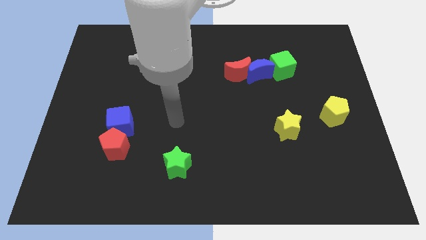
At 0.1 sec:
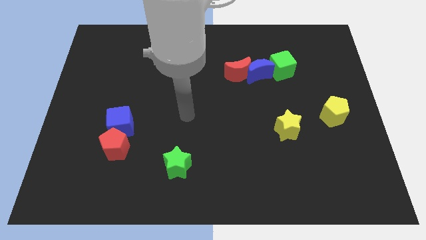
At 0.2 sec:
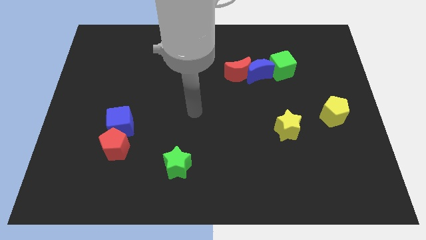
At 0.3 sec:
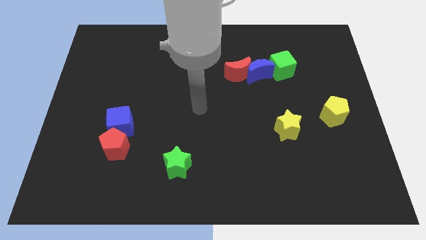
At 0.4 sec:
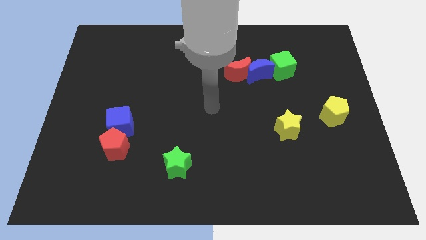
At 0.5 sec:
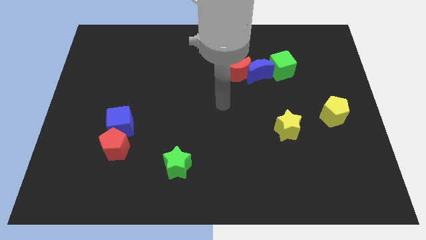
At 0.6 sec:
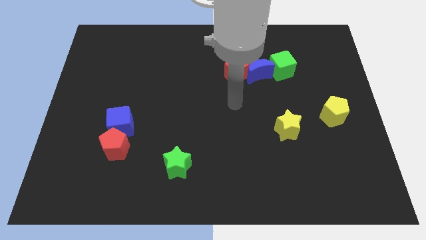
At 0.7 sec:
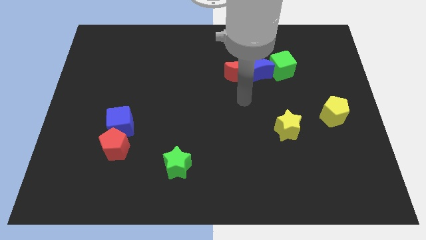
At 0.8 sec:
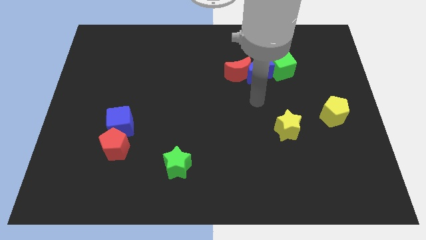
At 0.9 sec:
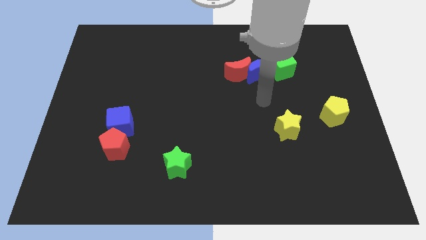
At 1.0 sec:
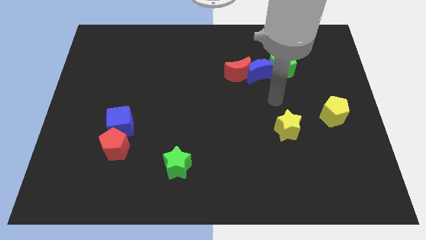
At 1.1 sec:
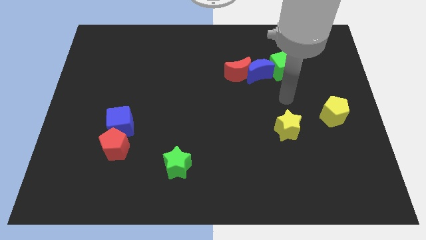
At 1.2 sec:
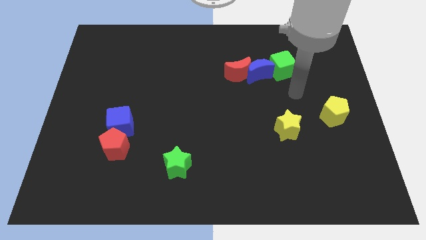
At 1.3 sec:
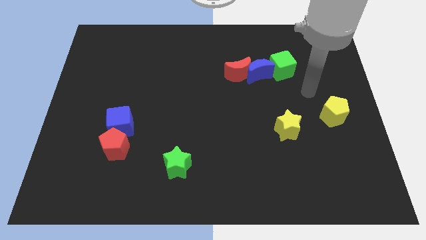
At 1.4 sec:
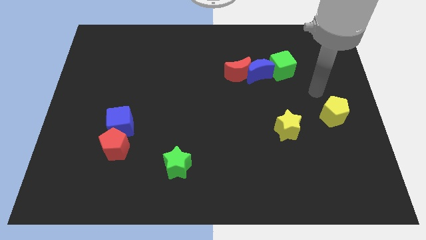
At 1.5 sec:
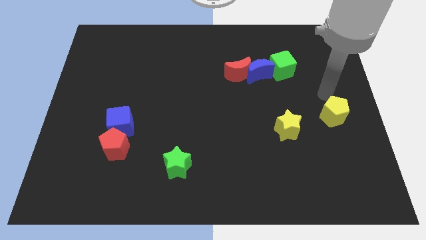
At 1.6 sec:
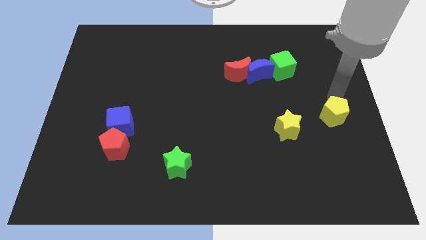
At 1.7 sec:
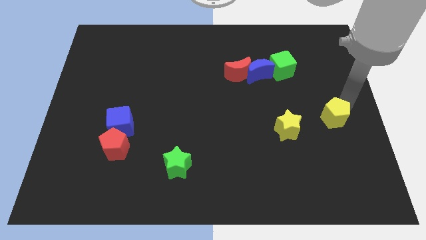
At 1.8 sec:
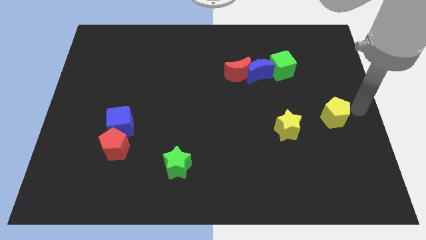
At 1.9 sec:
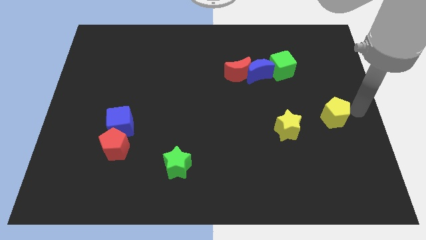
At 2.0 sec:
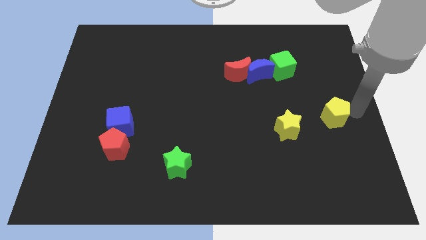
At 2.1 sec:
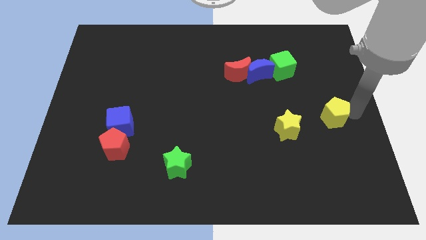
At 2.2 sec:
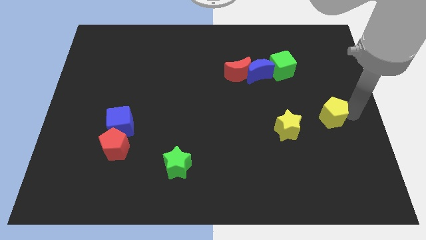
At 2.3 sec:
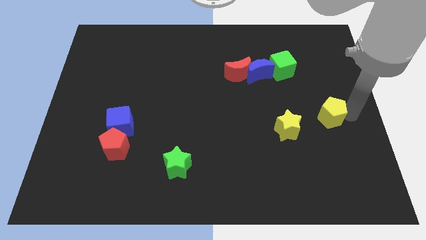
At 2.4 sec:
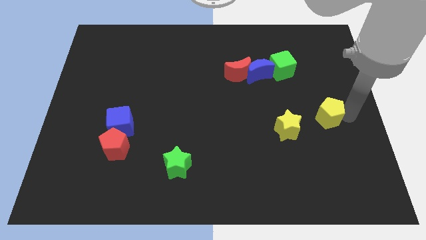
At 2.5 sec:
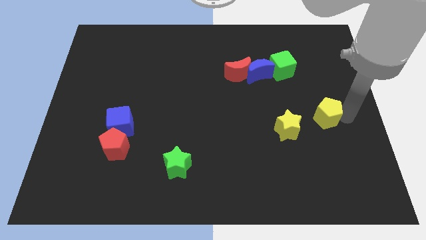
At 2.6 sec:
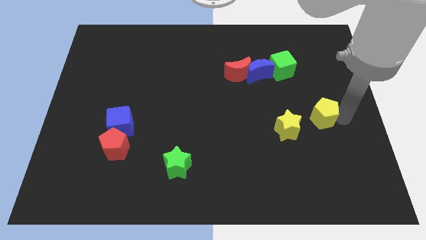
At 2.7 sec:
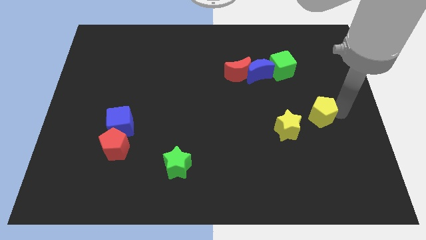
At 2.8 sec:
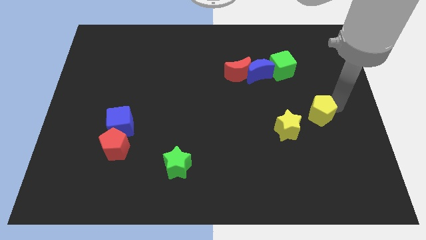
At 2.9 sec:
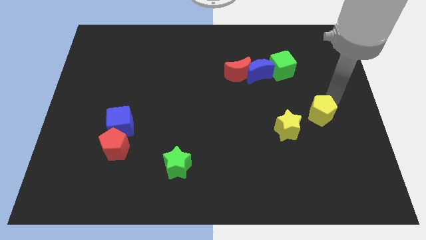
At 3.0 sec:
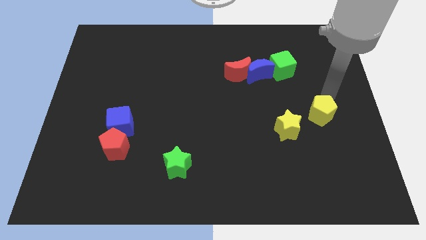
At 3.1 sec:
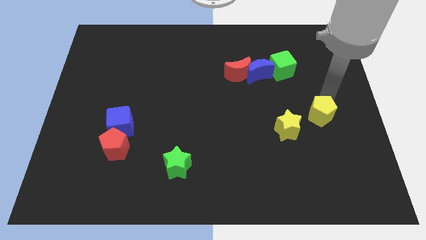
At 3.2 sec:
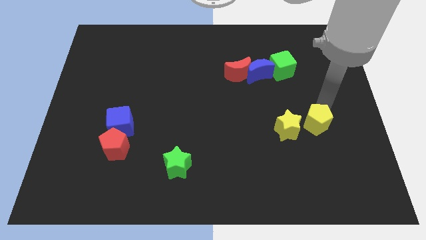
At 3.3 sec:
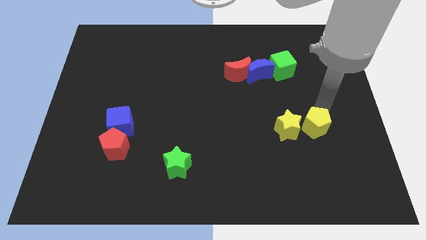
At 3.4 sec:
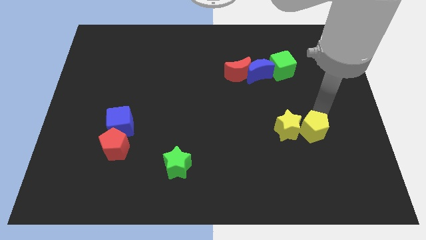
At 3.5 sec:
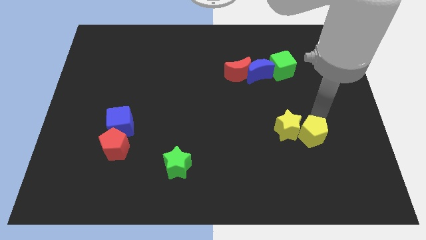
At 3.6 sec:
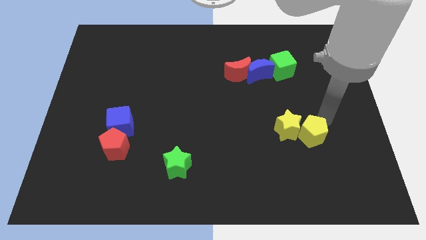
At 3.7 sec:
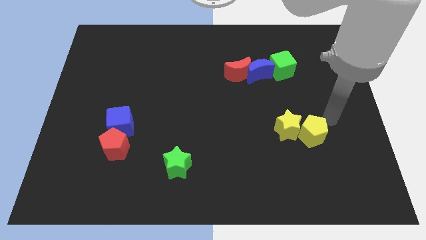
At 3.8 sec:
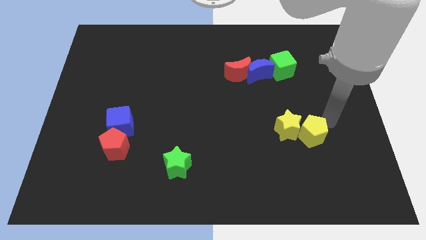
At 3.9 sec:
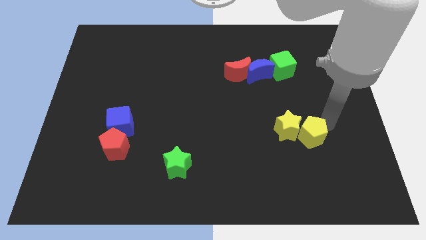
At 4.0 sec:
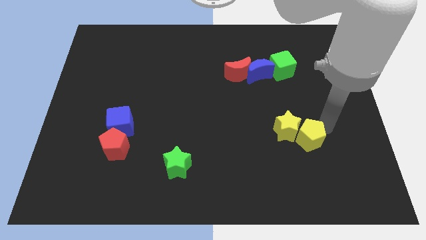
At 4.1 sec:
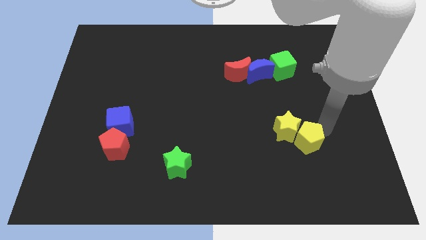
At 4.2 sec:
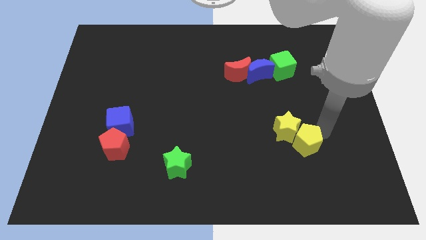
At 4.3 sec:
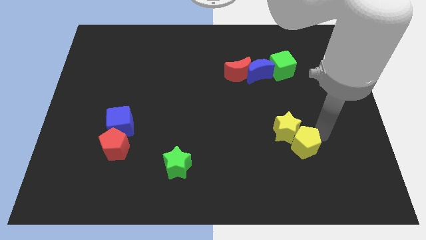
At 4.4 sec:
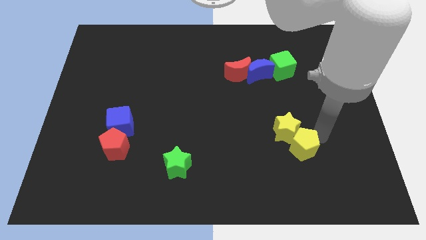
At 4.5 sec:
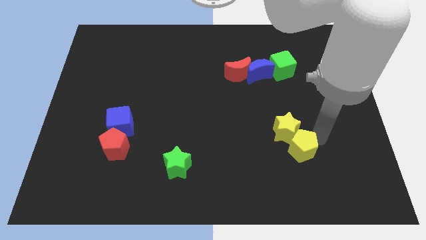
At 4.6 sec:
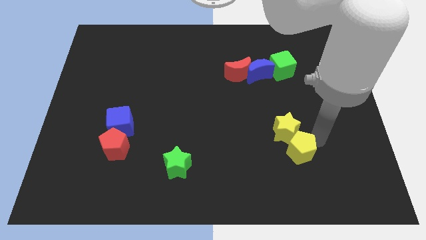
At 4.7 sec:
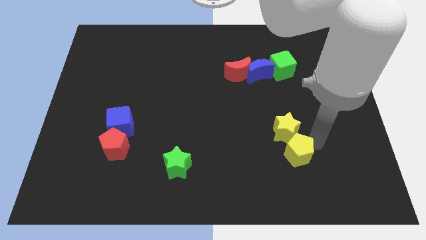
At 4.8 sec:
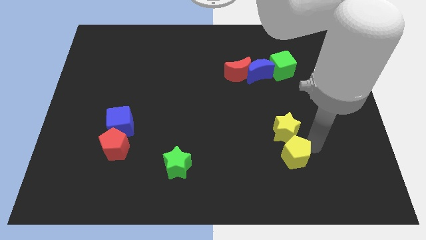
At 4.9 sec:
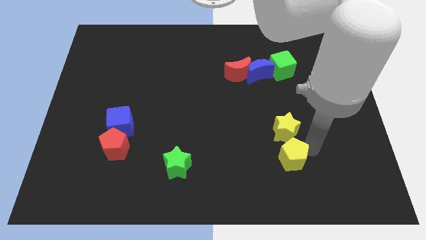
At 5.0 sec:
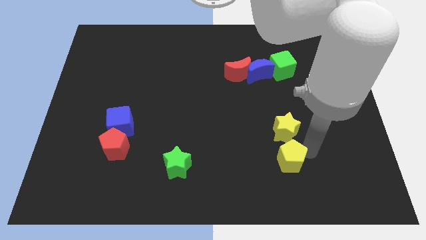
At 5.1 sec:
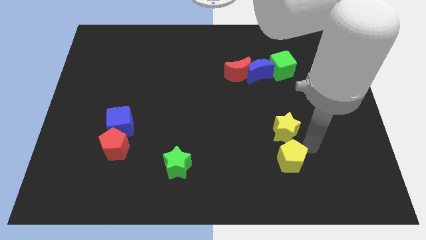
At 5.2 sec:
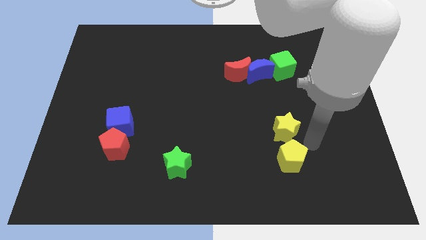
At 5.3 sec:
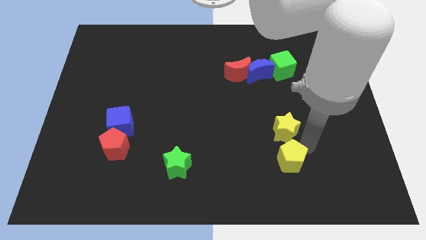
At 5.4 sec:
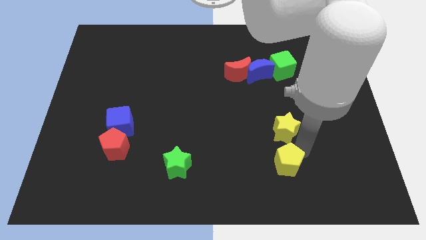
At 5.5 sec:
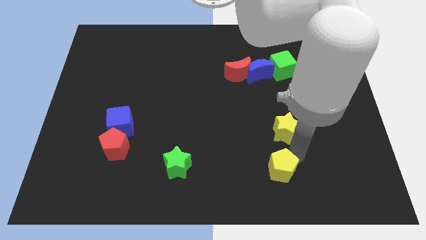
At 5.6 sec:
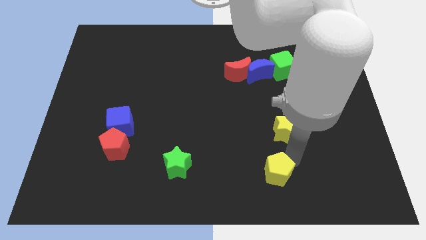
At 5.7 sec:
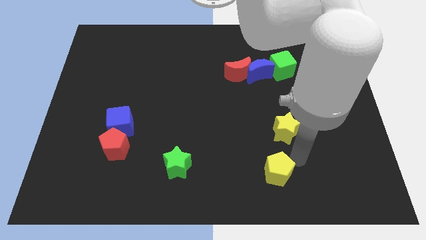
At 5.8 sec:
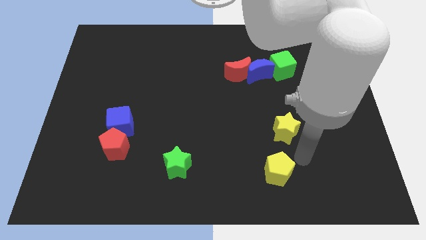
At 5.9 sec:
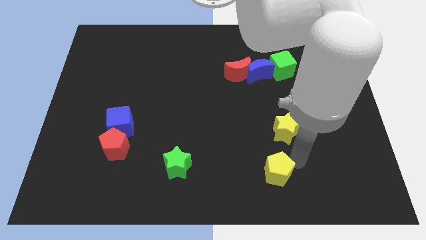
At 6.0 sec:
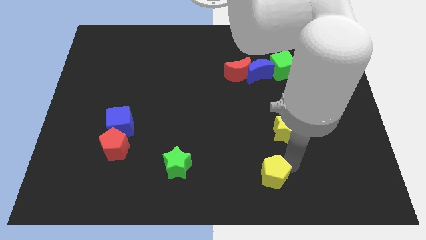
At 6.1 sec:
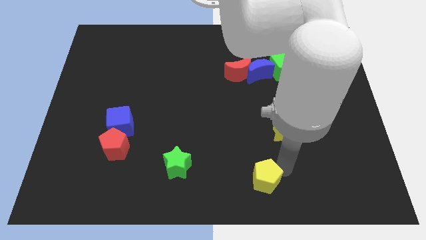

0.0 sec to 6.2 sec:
push the yellow pentagon to the bottom

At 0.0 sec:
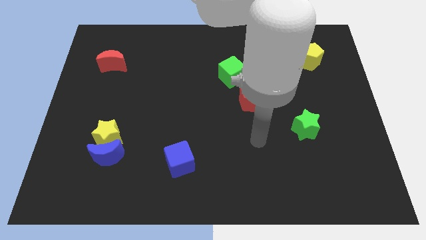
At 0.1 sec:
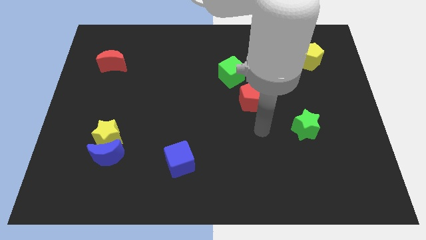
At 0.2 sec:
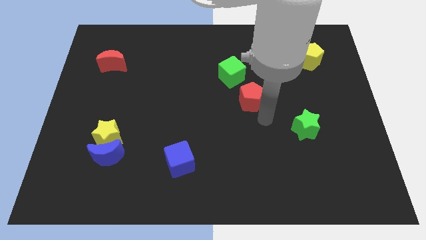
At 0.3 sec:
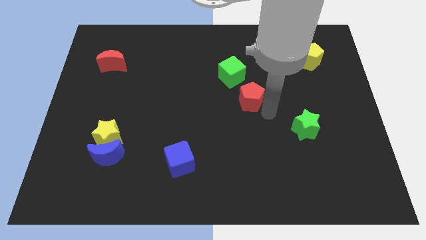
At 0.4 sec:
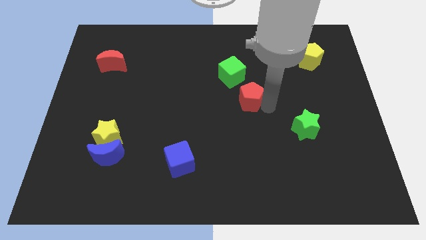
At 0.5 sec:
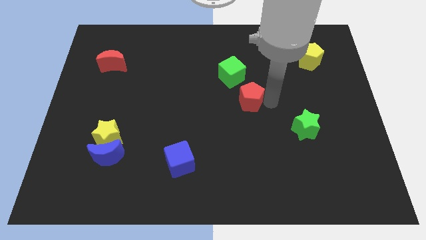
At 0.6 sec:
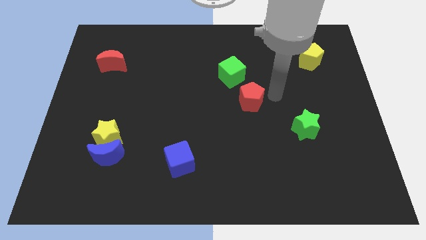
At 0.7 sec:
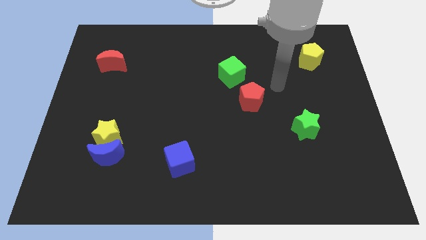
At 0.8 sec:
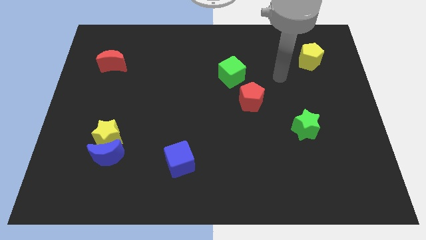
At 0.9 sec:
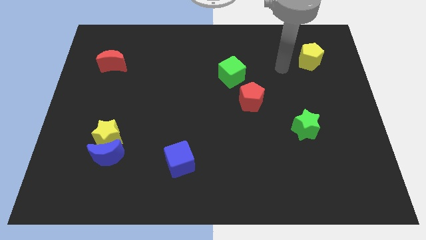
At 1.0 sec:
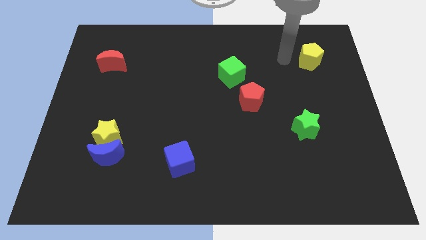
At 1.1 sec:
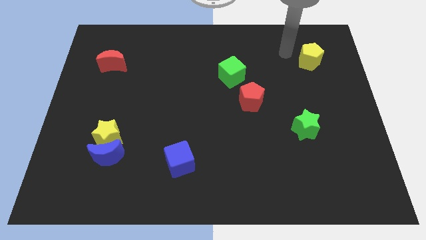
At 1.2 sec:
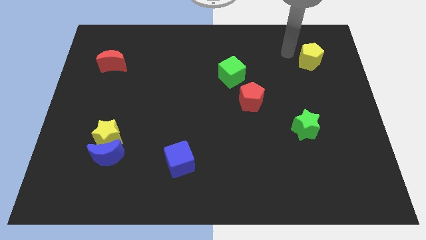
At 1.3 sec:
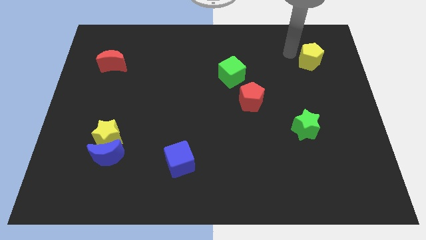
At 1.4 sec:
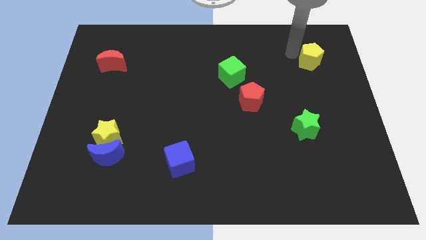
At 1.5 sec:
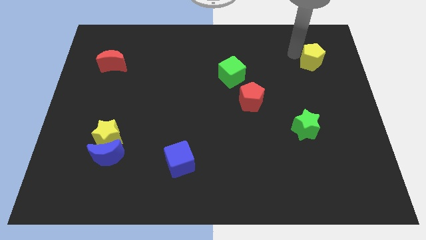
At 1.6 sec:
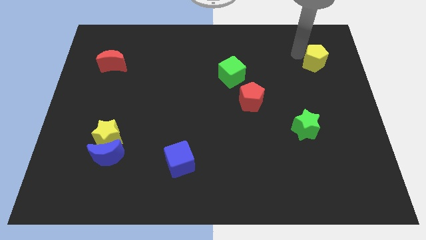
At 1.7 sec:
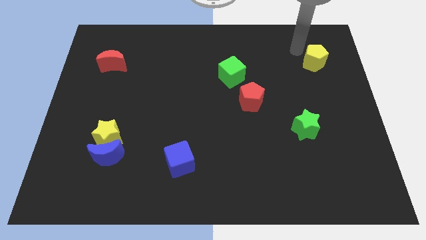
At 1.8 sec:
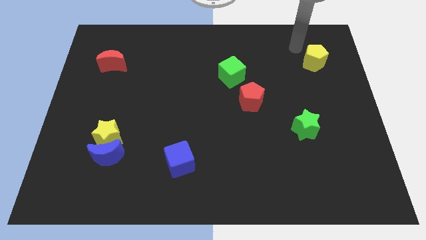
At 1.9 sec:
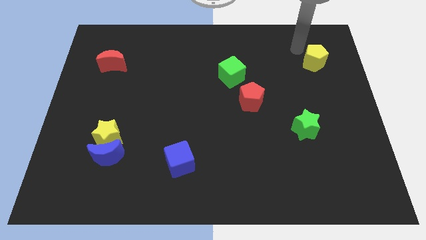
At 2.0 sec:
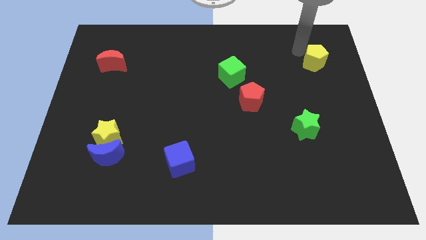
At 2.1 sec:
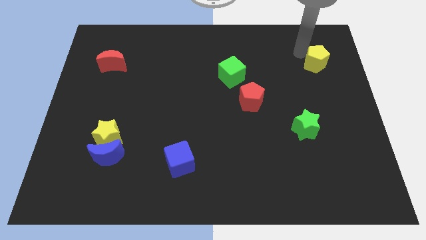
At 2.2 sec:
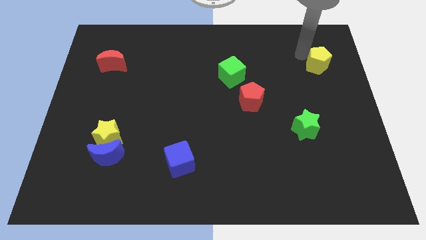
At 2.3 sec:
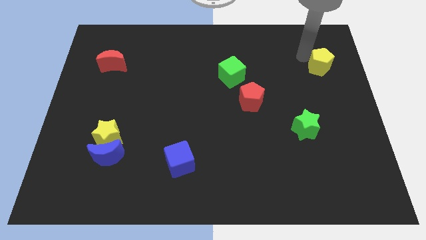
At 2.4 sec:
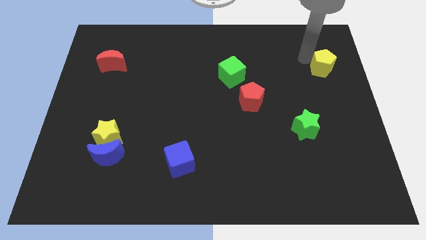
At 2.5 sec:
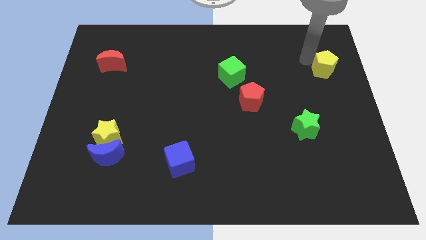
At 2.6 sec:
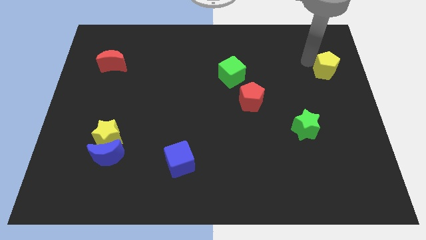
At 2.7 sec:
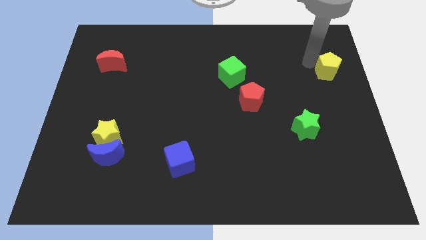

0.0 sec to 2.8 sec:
move the yellow pentagon to the center right
